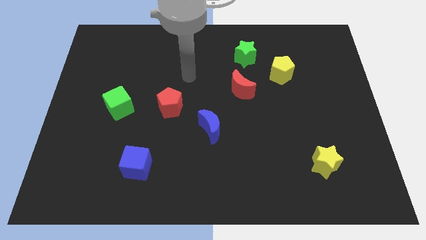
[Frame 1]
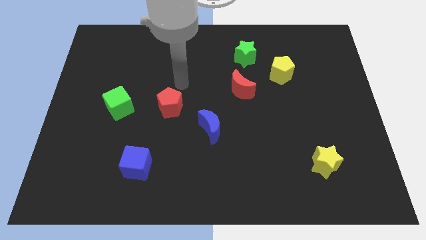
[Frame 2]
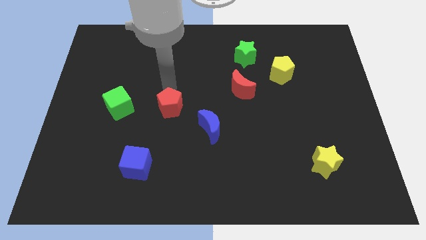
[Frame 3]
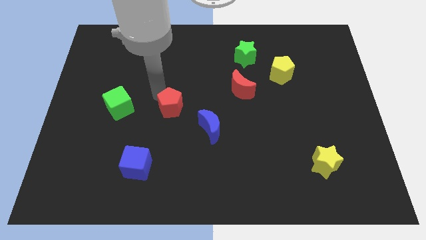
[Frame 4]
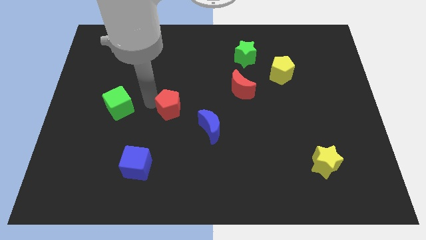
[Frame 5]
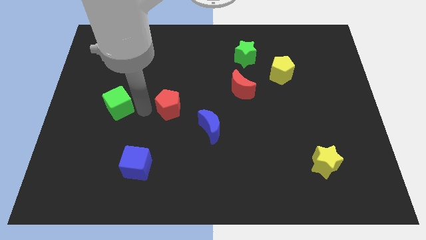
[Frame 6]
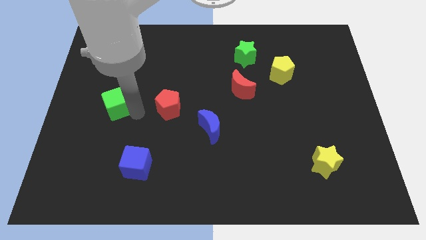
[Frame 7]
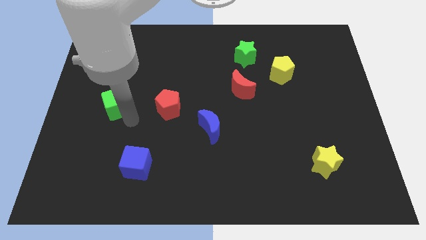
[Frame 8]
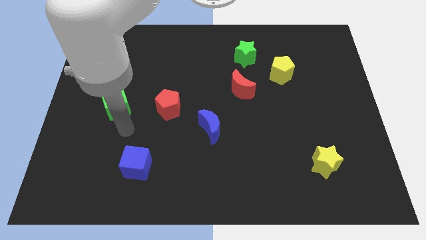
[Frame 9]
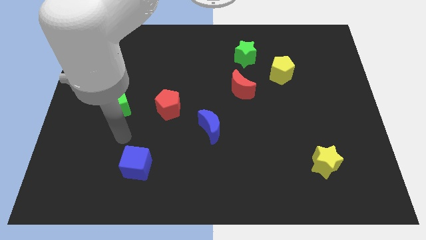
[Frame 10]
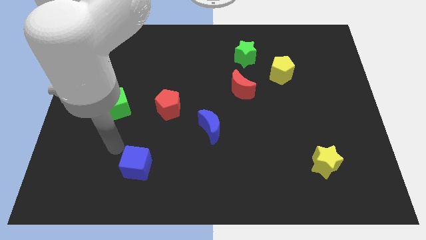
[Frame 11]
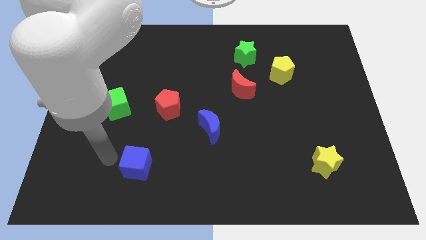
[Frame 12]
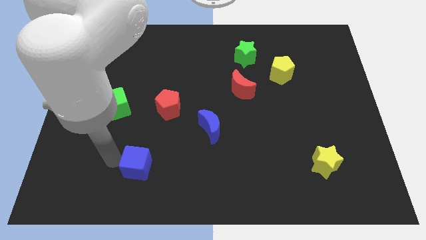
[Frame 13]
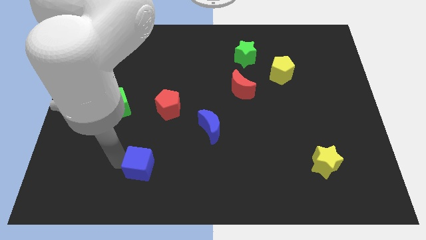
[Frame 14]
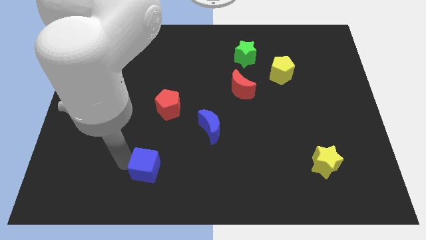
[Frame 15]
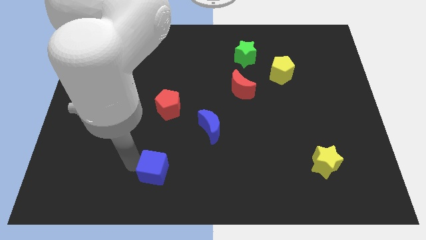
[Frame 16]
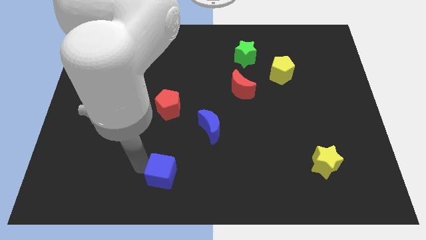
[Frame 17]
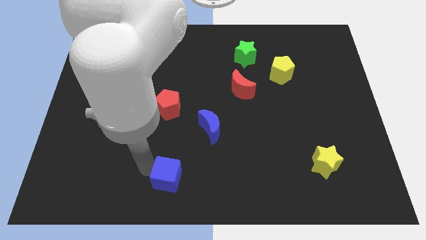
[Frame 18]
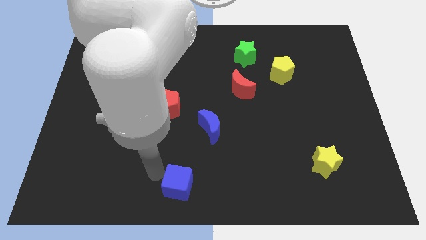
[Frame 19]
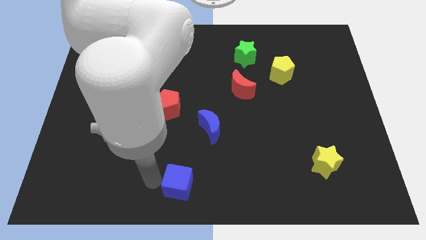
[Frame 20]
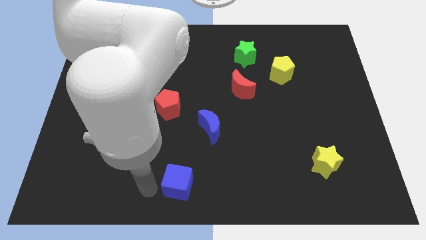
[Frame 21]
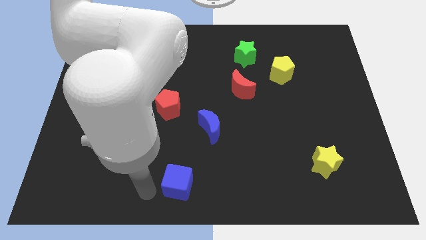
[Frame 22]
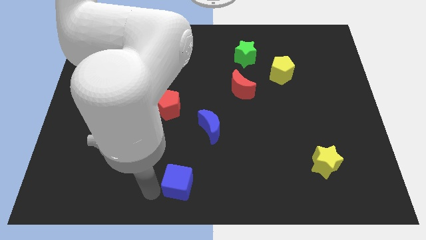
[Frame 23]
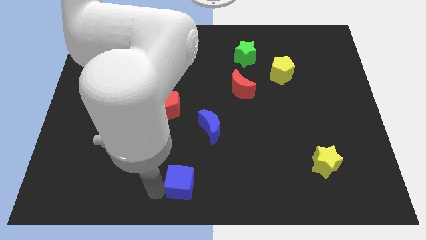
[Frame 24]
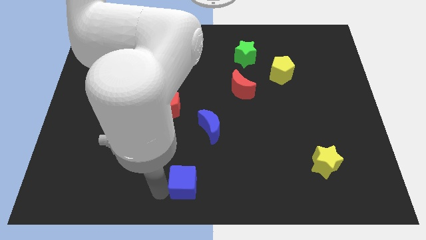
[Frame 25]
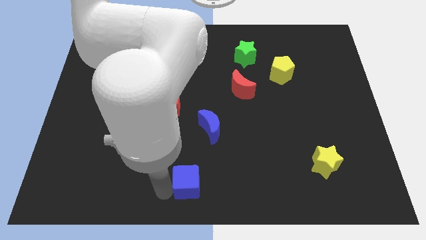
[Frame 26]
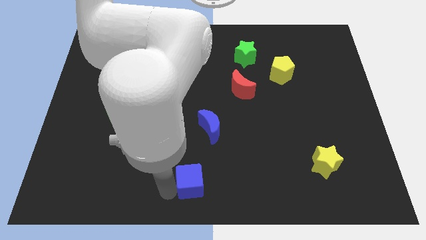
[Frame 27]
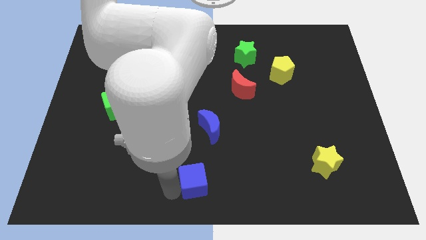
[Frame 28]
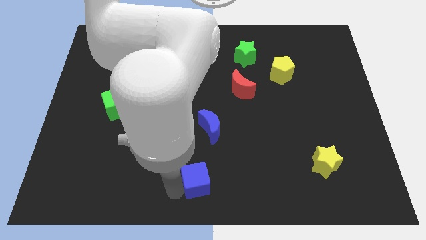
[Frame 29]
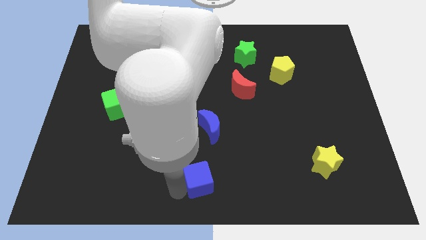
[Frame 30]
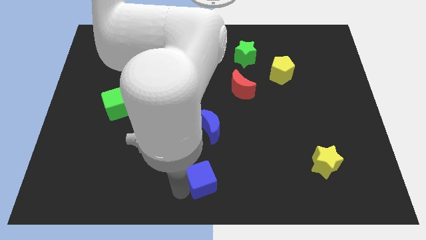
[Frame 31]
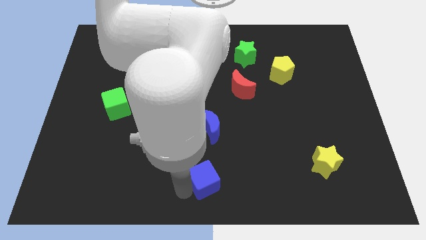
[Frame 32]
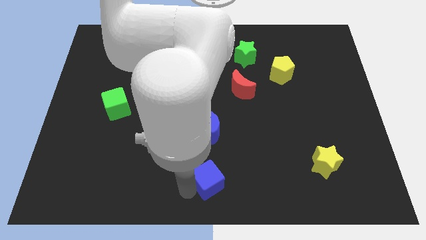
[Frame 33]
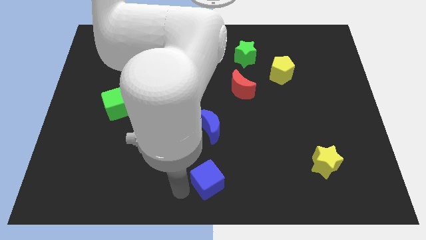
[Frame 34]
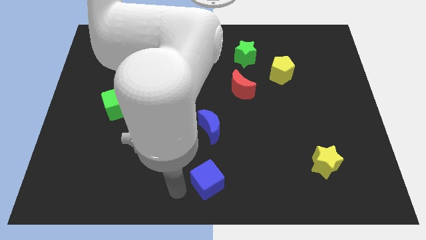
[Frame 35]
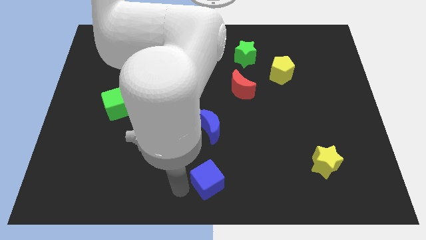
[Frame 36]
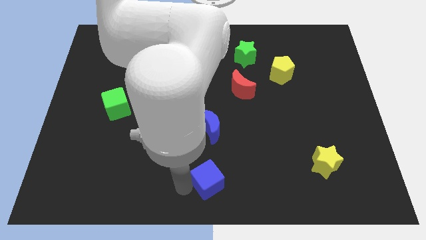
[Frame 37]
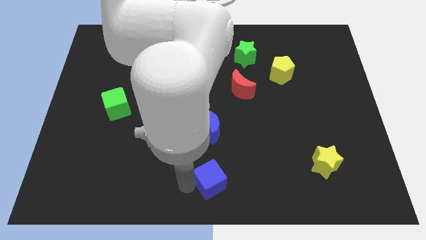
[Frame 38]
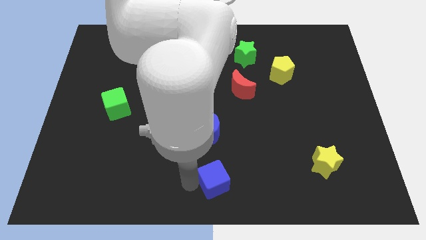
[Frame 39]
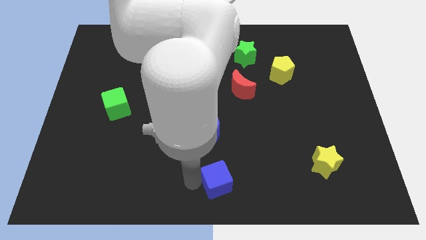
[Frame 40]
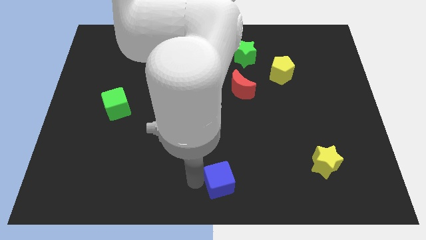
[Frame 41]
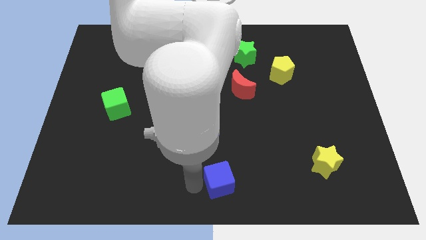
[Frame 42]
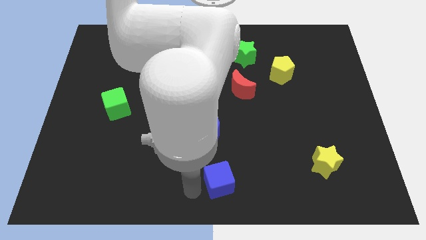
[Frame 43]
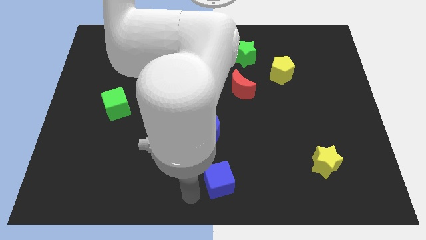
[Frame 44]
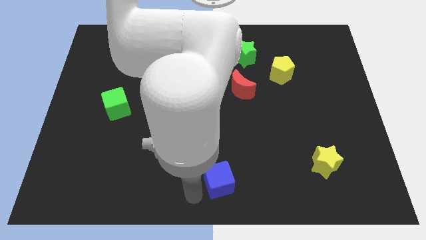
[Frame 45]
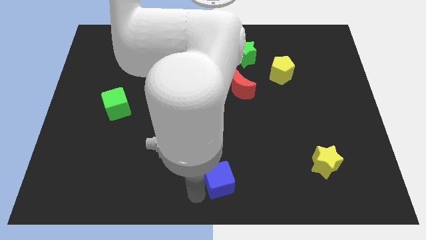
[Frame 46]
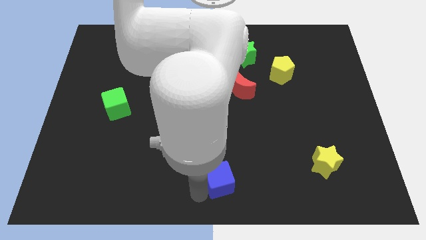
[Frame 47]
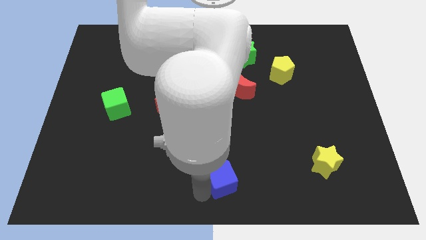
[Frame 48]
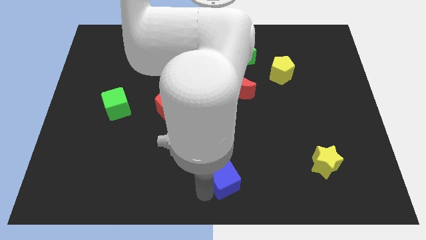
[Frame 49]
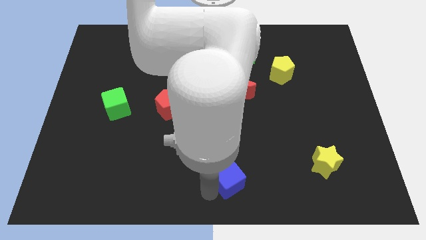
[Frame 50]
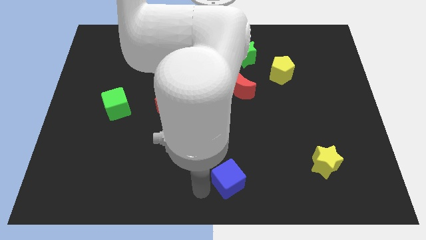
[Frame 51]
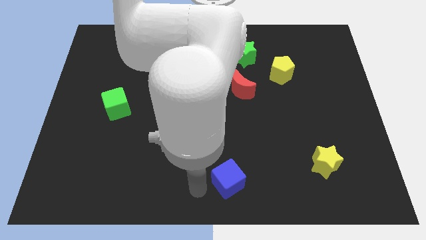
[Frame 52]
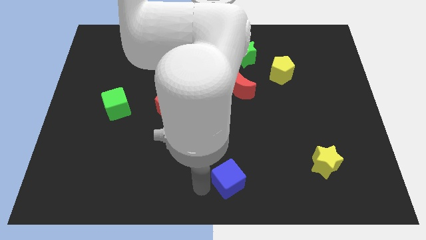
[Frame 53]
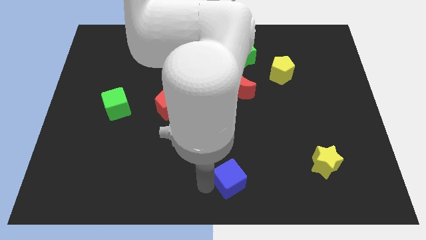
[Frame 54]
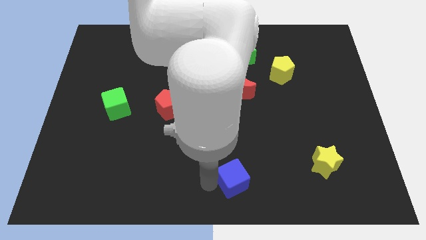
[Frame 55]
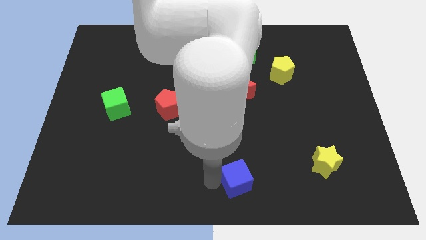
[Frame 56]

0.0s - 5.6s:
slide the blue cube right

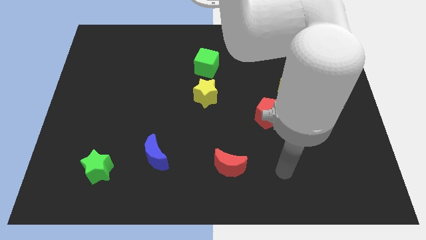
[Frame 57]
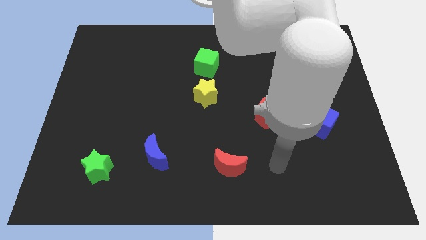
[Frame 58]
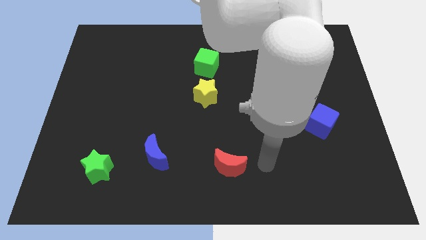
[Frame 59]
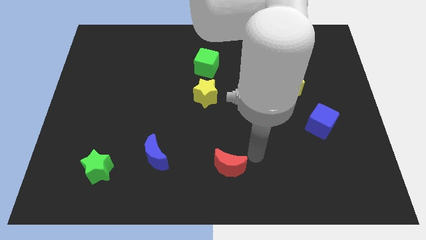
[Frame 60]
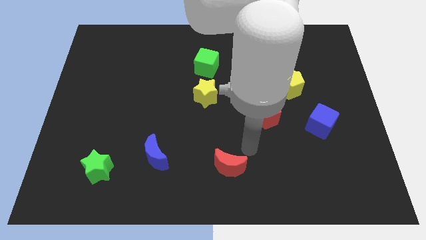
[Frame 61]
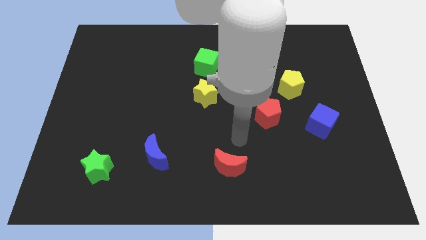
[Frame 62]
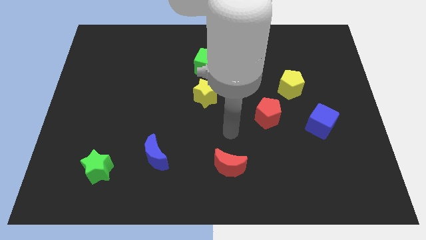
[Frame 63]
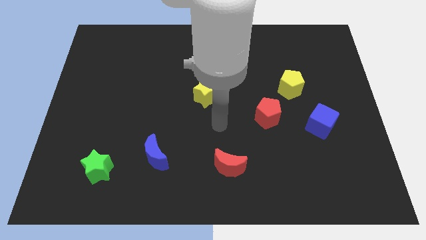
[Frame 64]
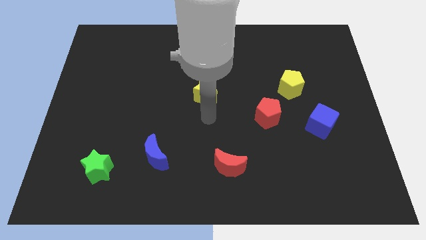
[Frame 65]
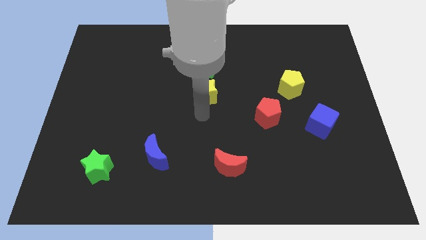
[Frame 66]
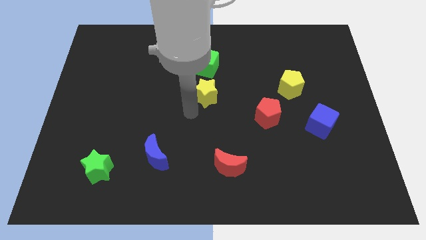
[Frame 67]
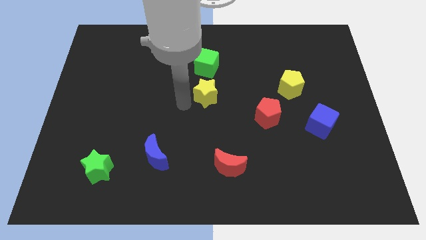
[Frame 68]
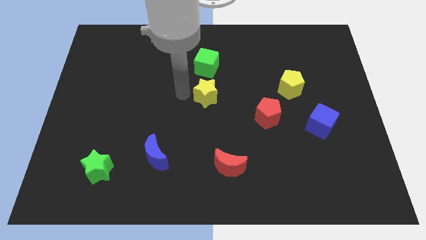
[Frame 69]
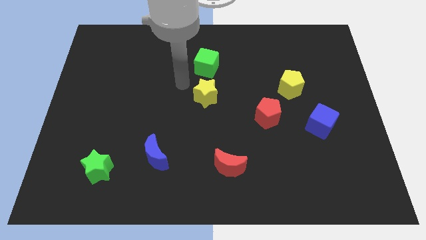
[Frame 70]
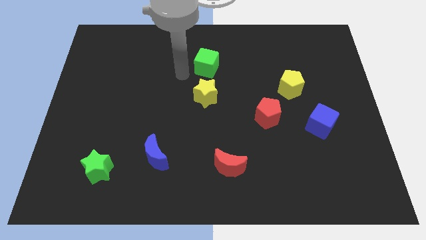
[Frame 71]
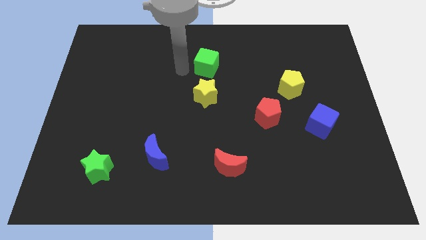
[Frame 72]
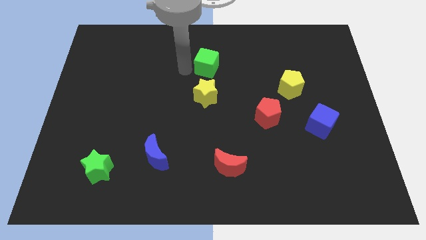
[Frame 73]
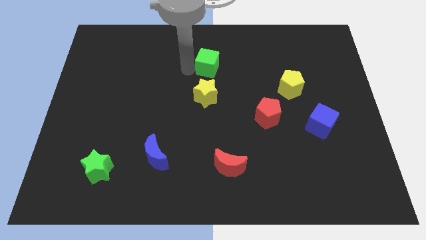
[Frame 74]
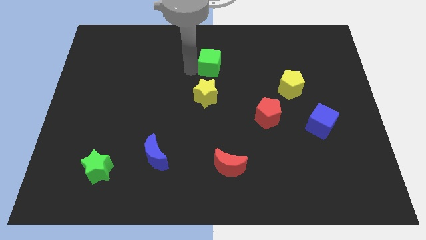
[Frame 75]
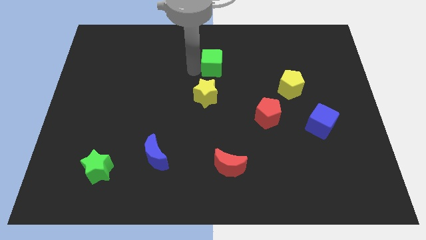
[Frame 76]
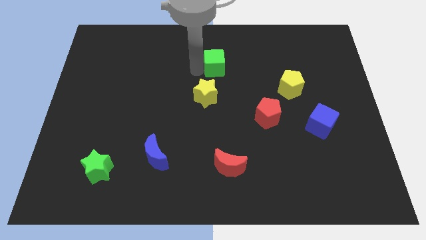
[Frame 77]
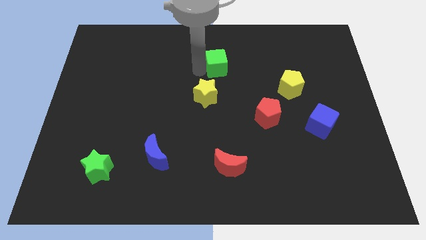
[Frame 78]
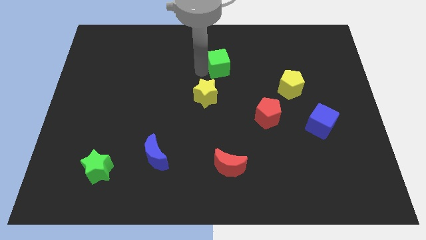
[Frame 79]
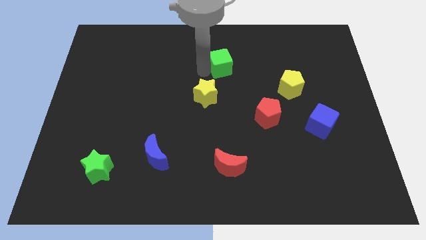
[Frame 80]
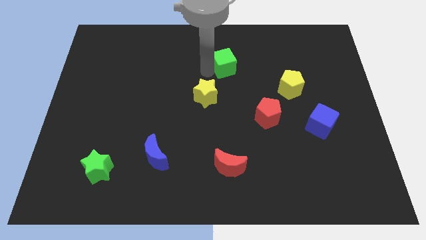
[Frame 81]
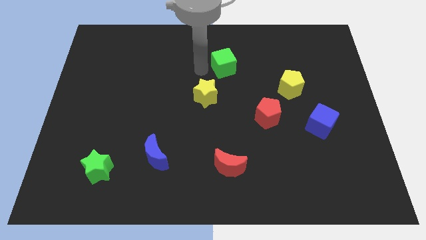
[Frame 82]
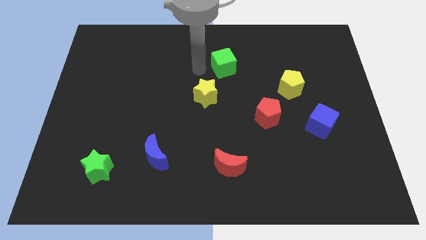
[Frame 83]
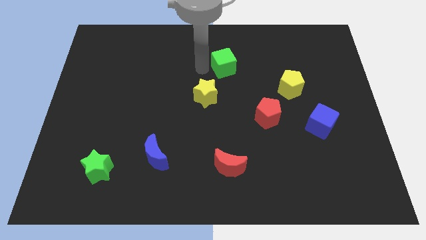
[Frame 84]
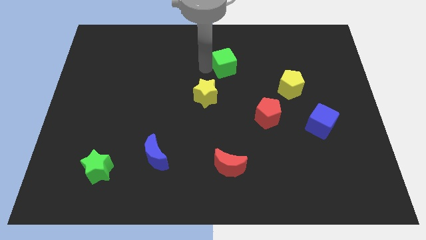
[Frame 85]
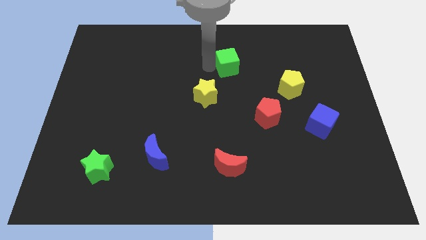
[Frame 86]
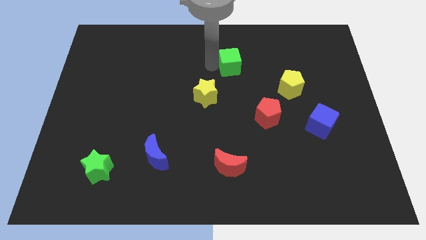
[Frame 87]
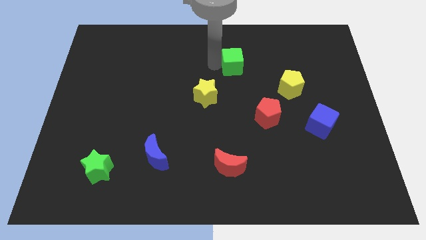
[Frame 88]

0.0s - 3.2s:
slightly move the green cube right
